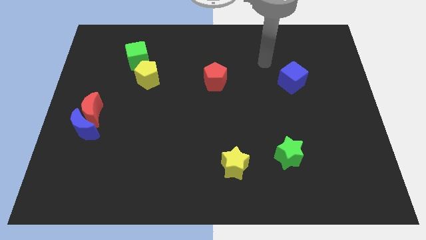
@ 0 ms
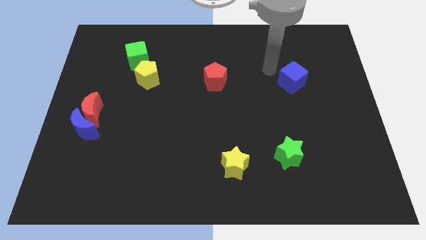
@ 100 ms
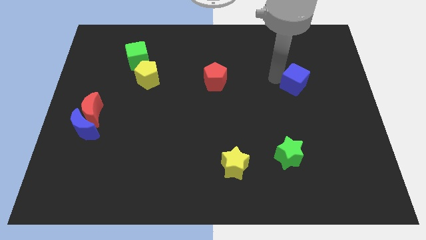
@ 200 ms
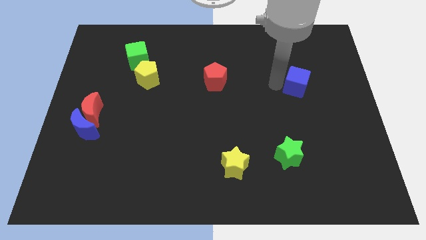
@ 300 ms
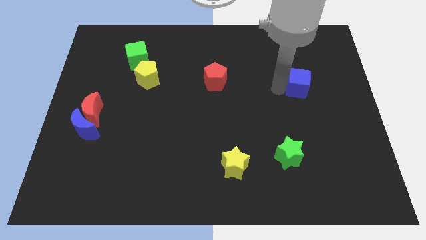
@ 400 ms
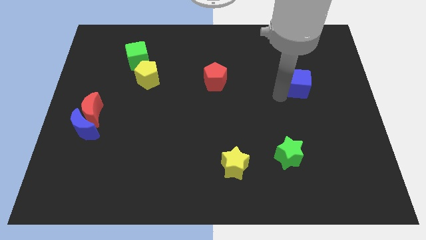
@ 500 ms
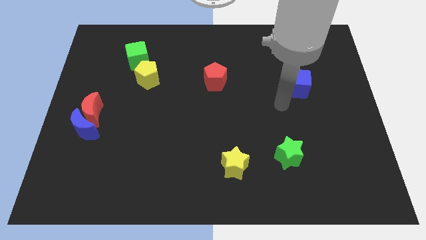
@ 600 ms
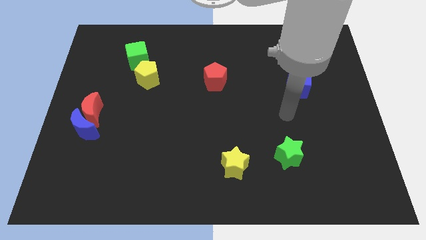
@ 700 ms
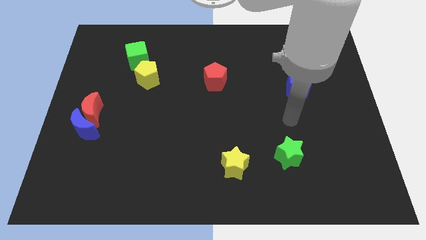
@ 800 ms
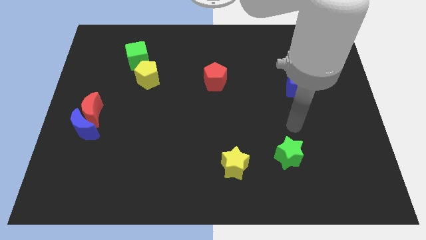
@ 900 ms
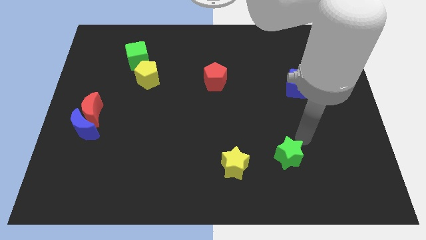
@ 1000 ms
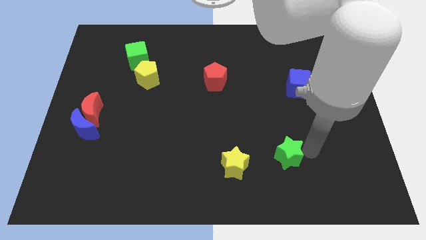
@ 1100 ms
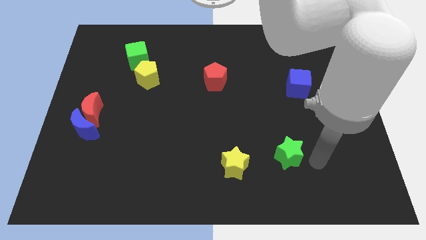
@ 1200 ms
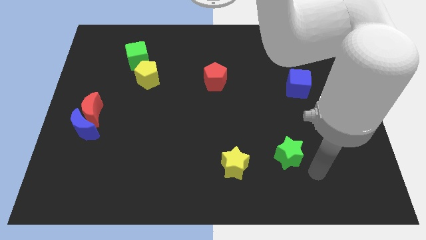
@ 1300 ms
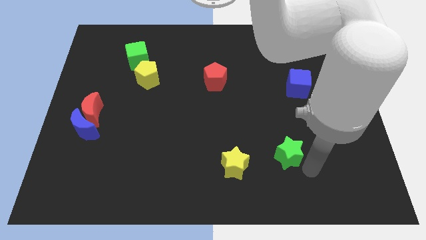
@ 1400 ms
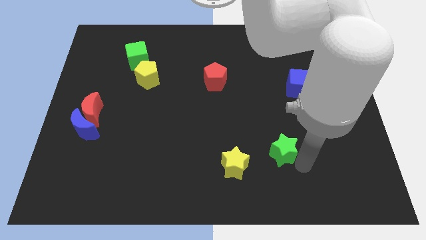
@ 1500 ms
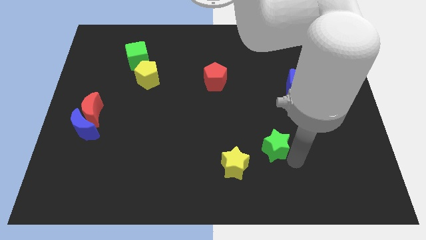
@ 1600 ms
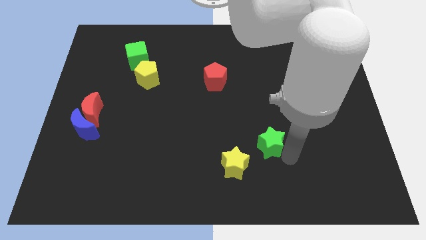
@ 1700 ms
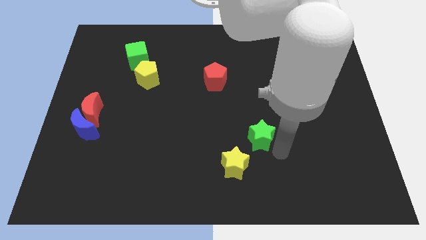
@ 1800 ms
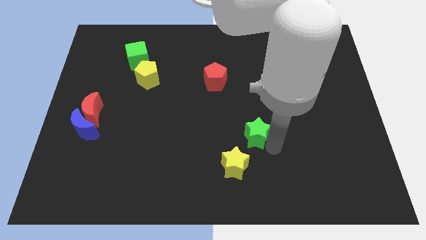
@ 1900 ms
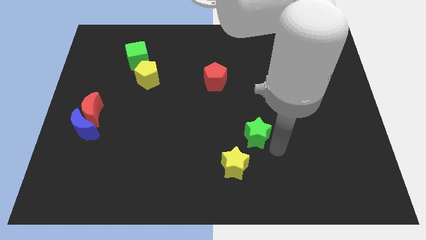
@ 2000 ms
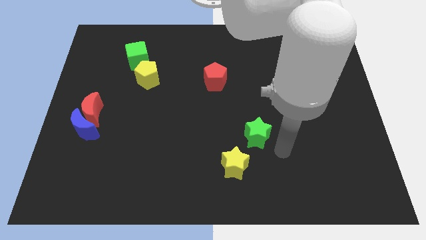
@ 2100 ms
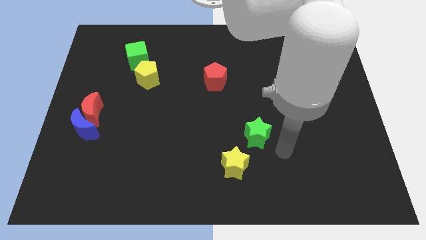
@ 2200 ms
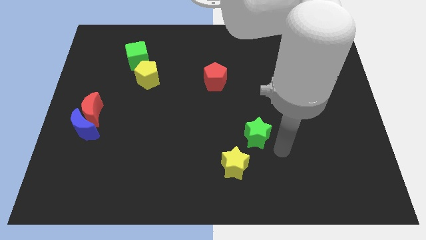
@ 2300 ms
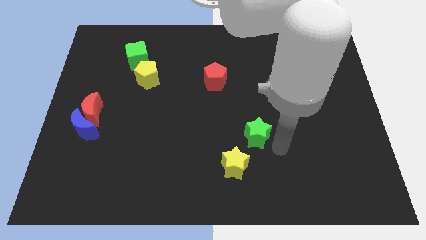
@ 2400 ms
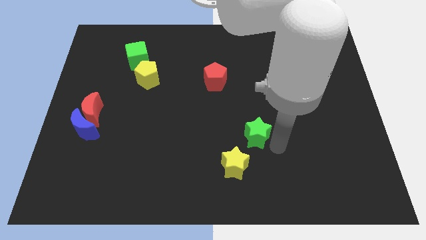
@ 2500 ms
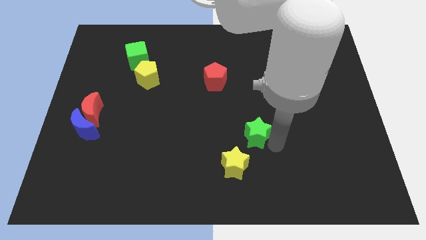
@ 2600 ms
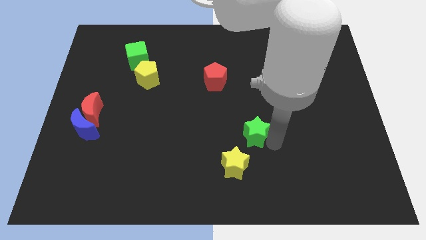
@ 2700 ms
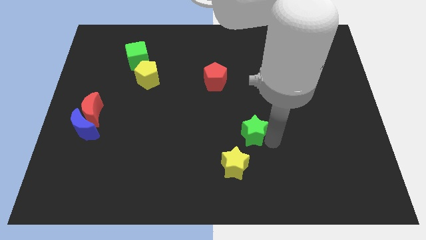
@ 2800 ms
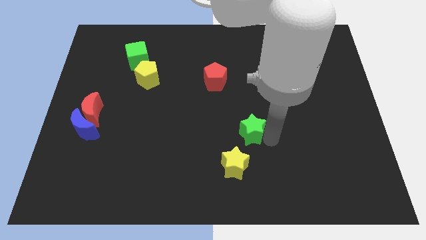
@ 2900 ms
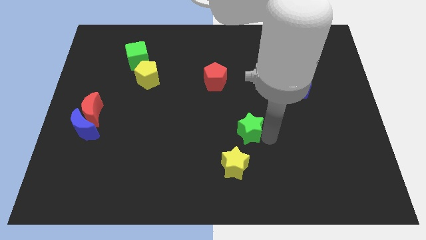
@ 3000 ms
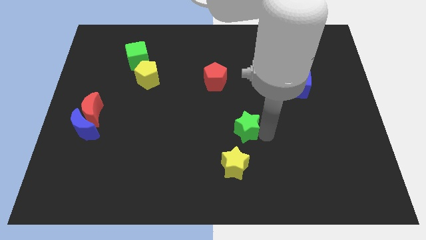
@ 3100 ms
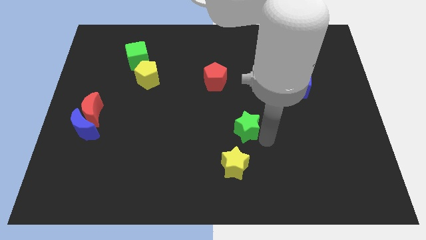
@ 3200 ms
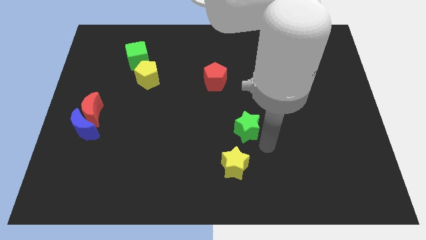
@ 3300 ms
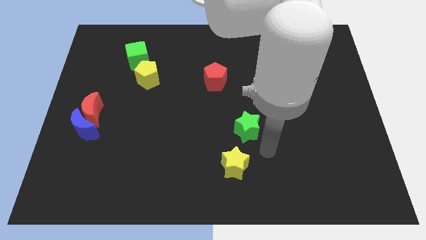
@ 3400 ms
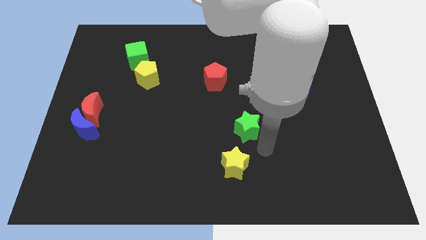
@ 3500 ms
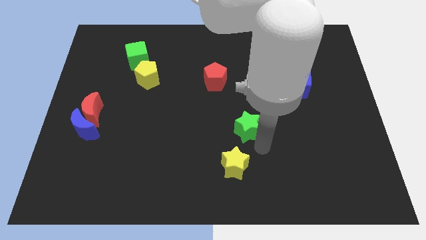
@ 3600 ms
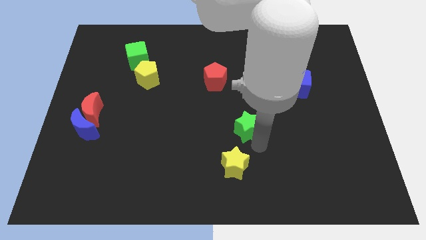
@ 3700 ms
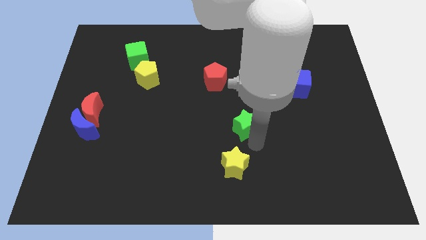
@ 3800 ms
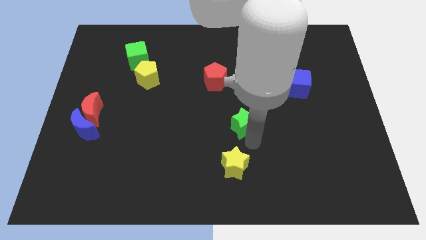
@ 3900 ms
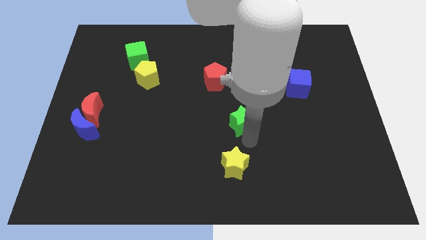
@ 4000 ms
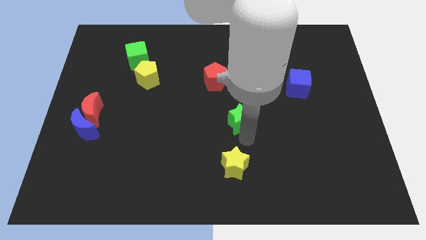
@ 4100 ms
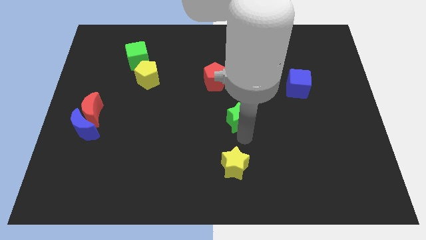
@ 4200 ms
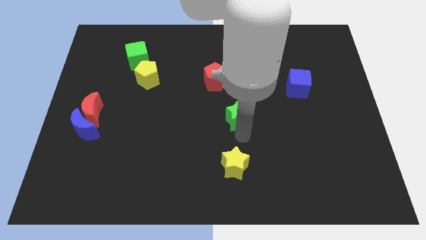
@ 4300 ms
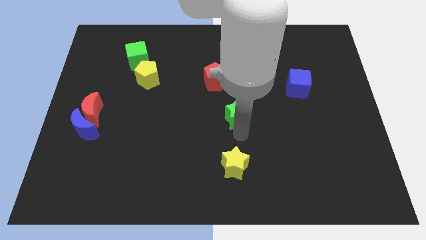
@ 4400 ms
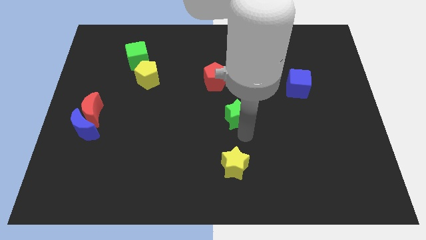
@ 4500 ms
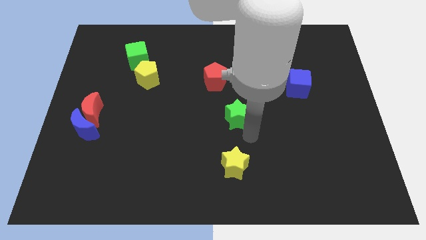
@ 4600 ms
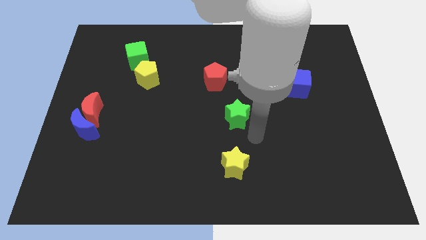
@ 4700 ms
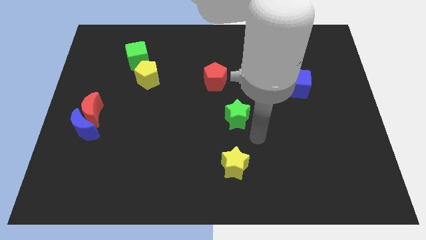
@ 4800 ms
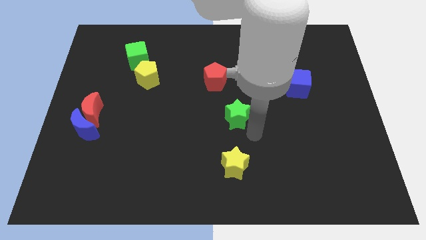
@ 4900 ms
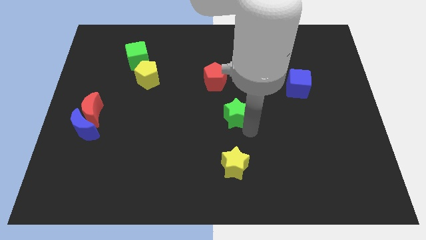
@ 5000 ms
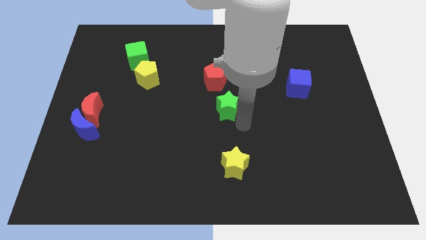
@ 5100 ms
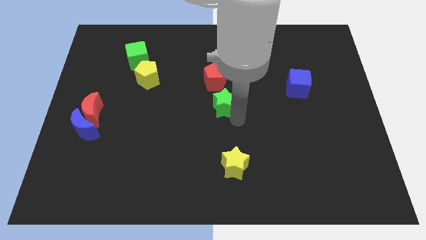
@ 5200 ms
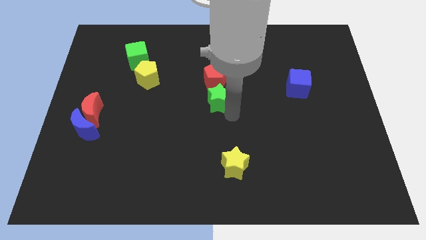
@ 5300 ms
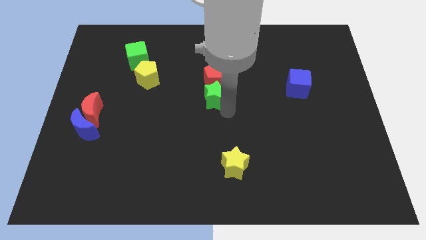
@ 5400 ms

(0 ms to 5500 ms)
put the green star towards the red pentagon
